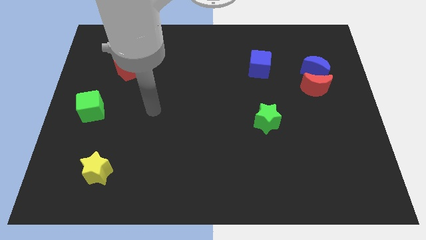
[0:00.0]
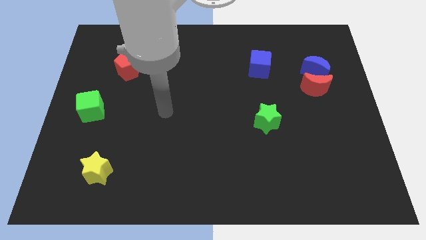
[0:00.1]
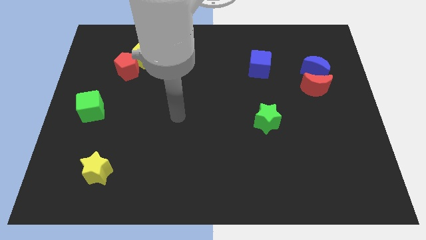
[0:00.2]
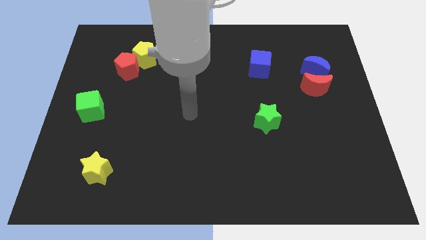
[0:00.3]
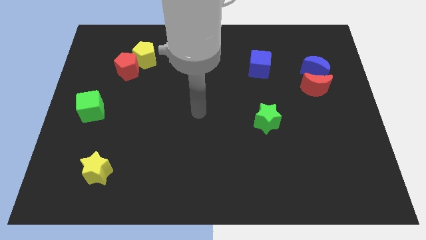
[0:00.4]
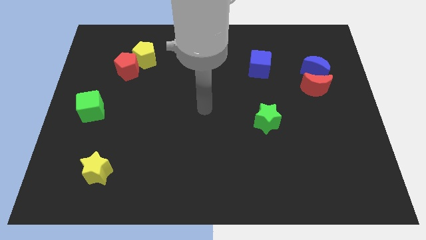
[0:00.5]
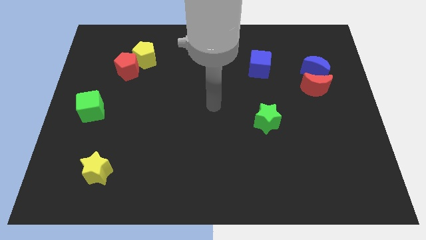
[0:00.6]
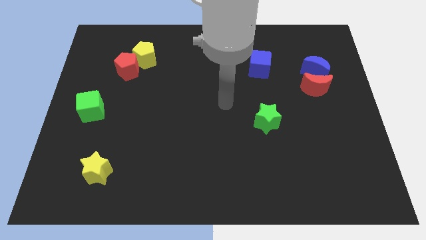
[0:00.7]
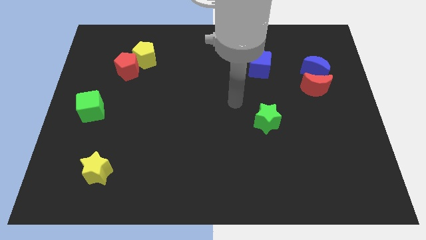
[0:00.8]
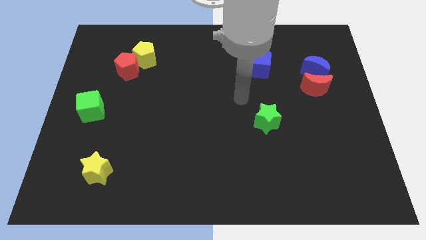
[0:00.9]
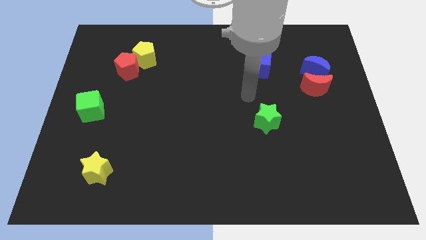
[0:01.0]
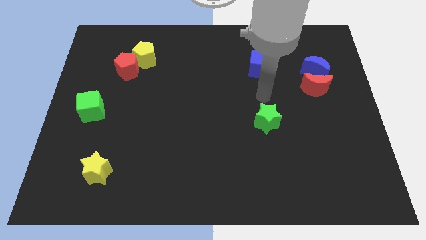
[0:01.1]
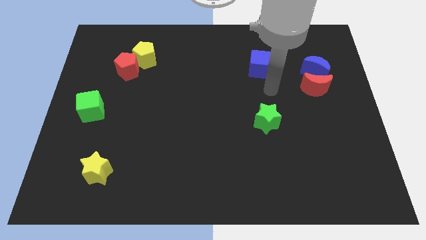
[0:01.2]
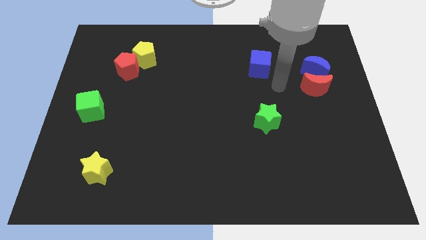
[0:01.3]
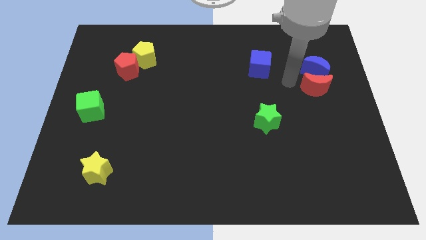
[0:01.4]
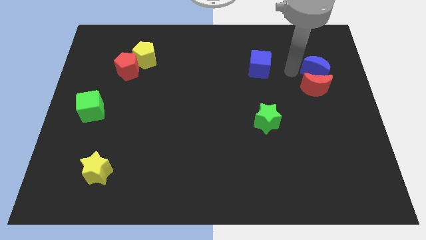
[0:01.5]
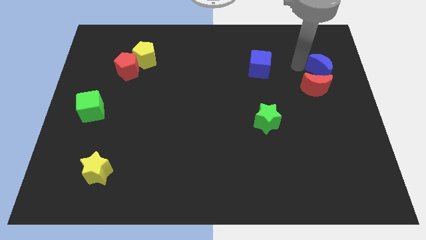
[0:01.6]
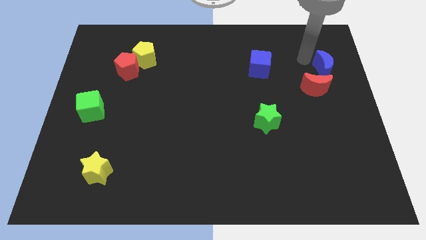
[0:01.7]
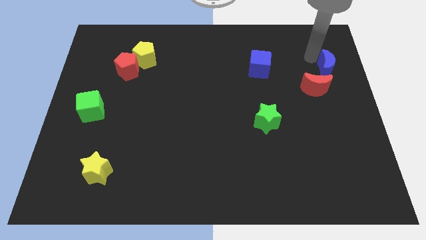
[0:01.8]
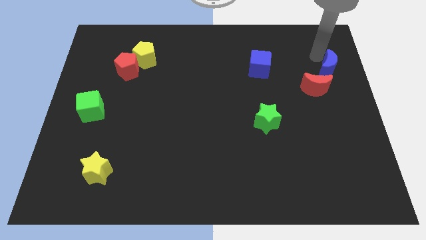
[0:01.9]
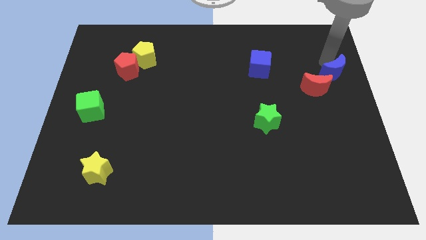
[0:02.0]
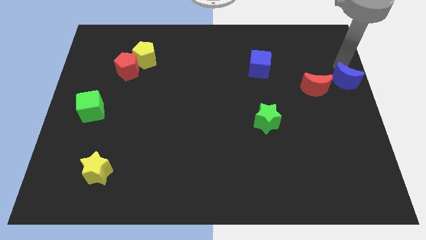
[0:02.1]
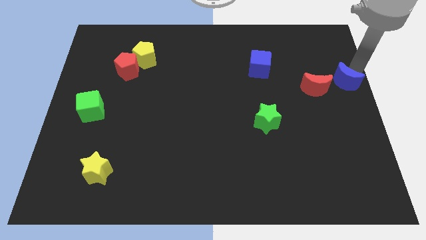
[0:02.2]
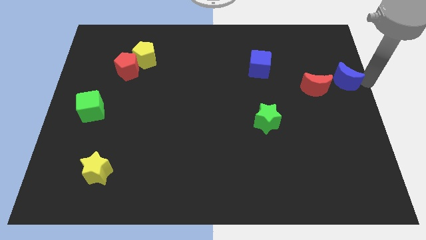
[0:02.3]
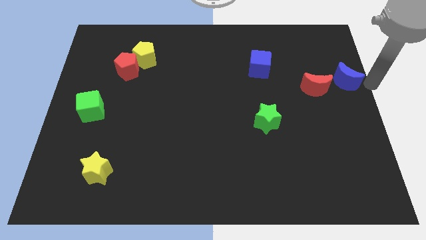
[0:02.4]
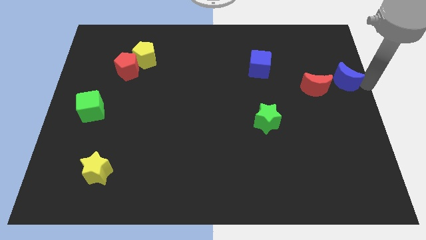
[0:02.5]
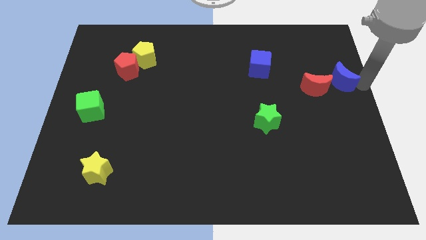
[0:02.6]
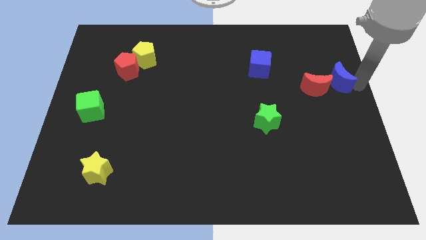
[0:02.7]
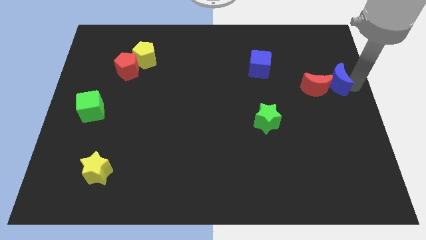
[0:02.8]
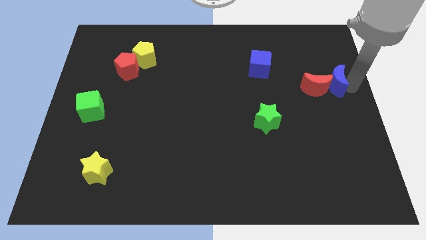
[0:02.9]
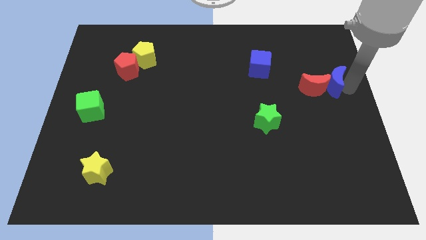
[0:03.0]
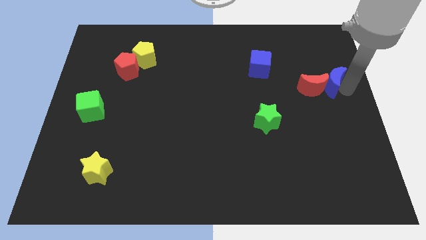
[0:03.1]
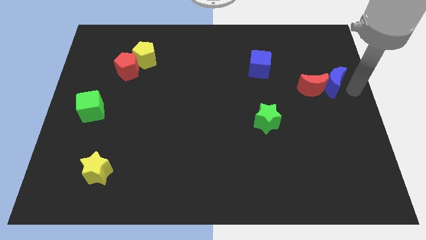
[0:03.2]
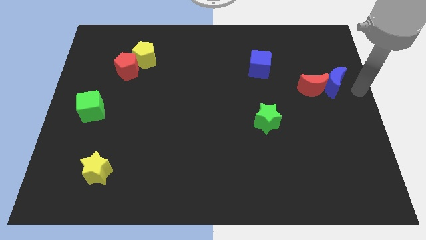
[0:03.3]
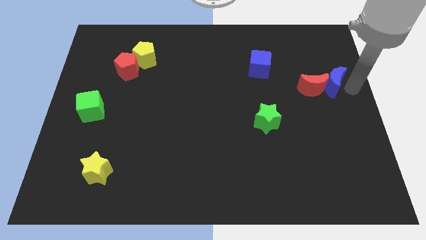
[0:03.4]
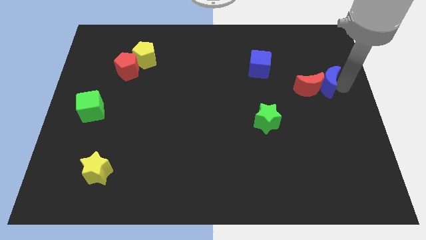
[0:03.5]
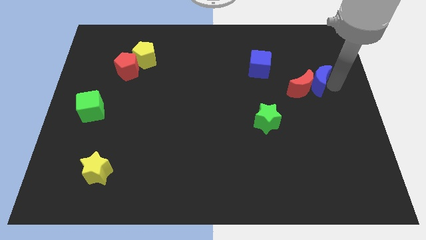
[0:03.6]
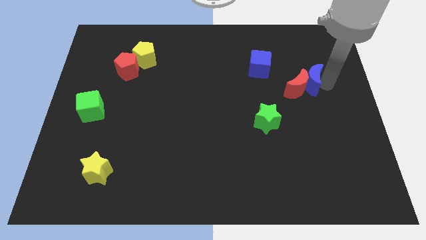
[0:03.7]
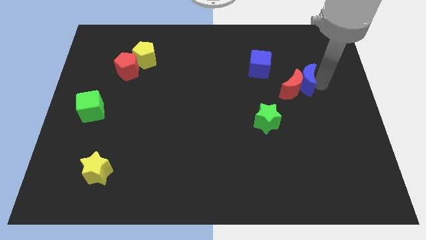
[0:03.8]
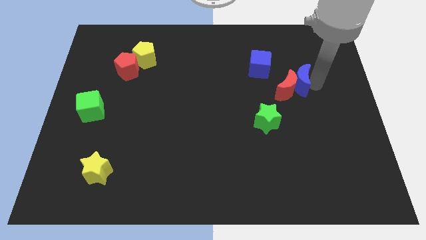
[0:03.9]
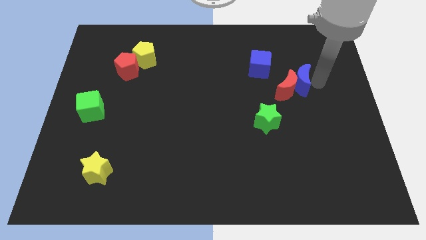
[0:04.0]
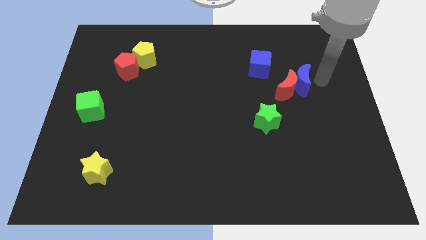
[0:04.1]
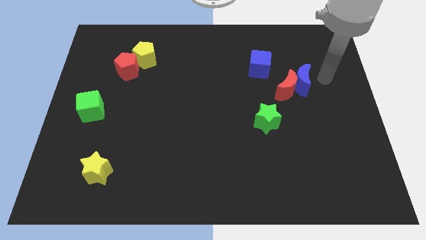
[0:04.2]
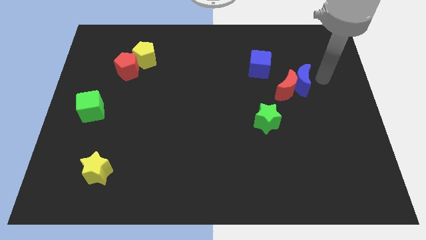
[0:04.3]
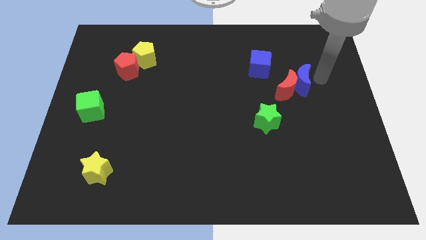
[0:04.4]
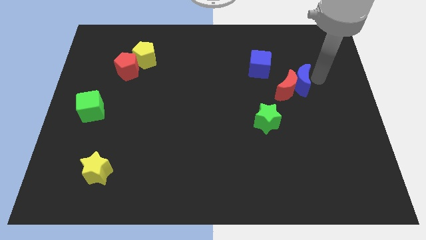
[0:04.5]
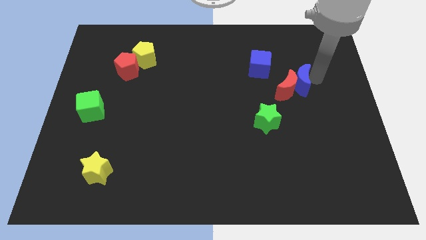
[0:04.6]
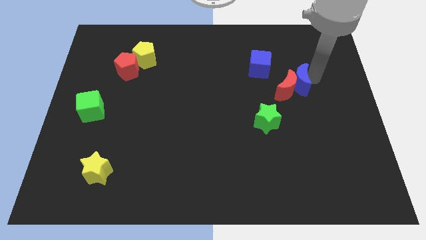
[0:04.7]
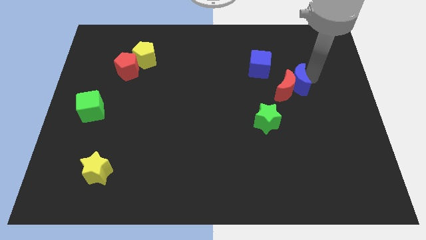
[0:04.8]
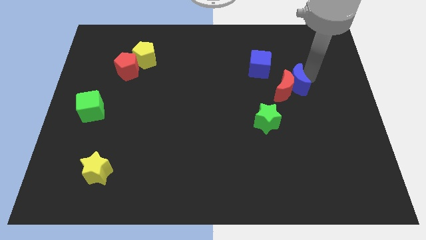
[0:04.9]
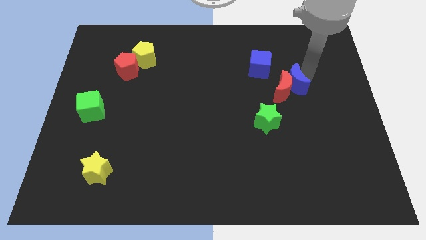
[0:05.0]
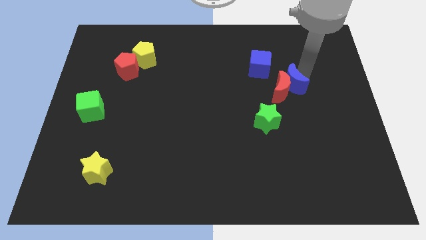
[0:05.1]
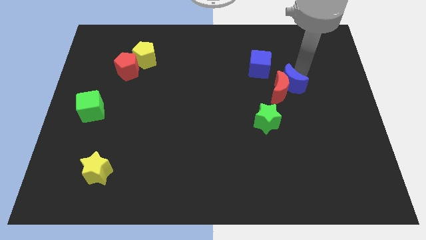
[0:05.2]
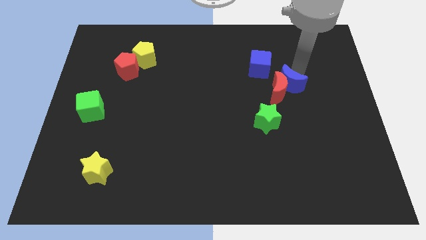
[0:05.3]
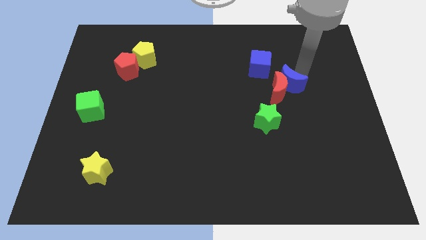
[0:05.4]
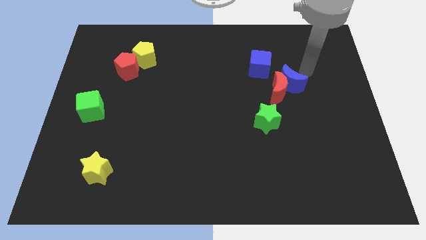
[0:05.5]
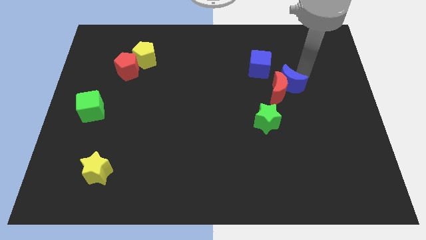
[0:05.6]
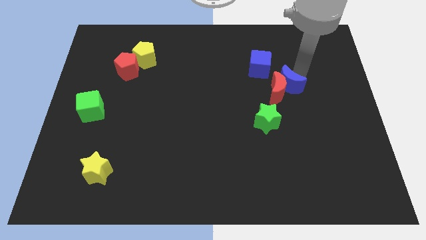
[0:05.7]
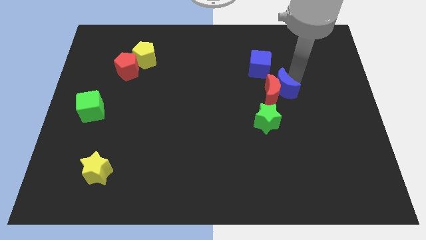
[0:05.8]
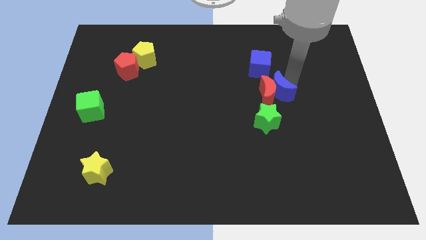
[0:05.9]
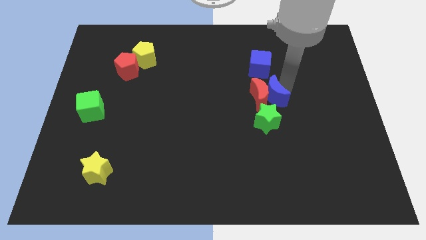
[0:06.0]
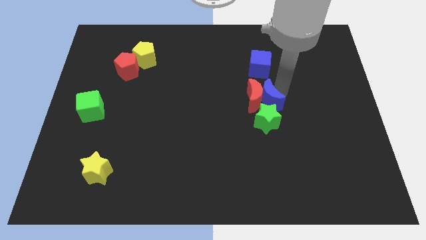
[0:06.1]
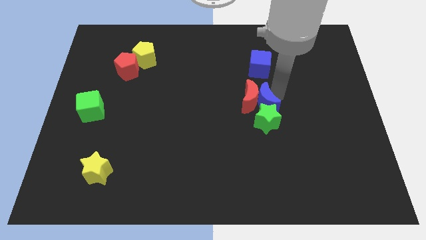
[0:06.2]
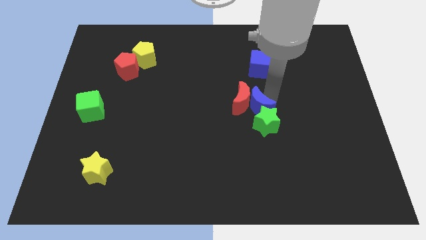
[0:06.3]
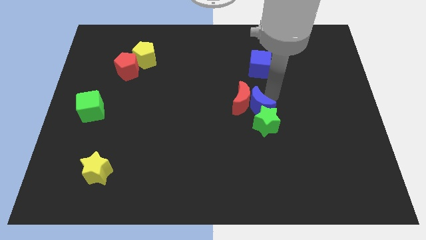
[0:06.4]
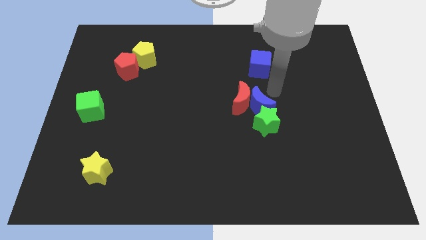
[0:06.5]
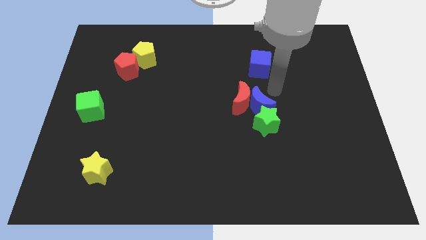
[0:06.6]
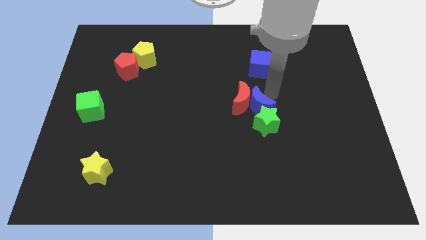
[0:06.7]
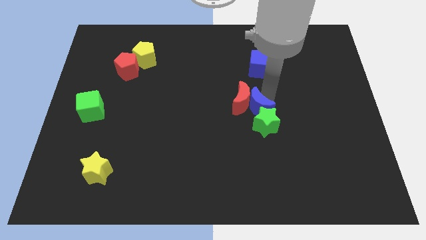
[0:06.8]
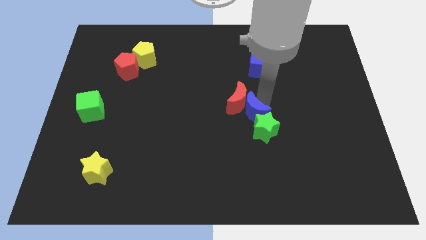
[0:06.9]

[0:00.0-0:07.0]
move the blue moon downwards and to the left

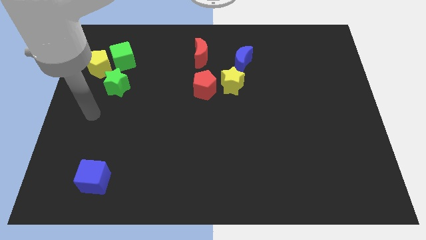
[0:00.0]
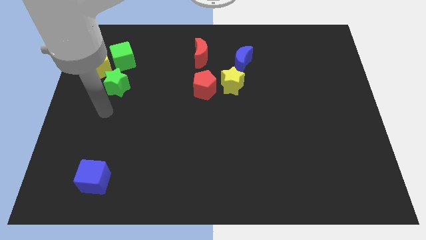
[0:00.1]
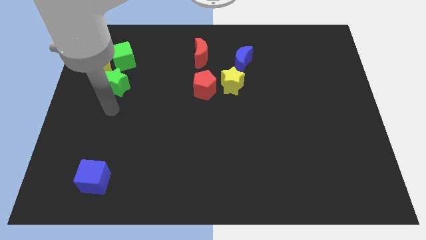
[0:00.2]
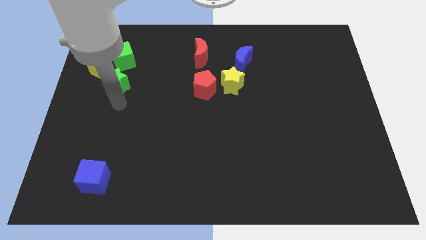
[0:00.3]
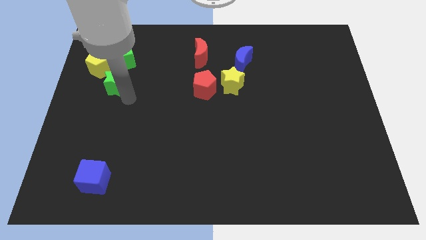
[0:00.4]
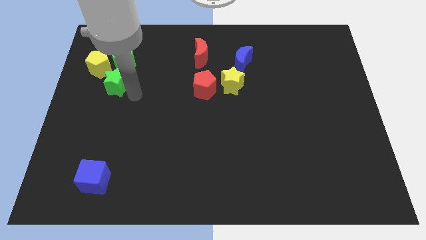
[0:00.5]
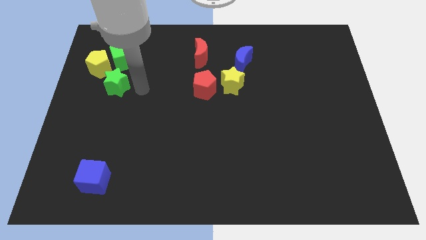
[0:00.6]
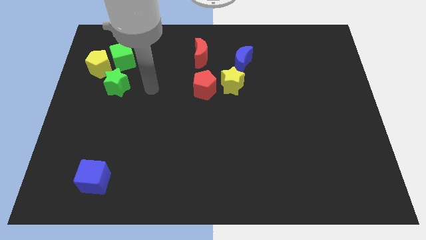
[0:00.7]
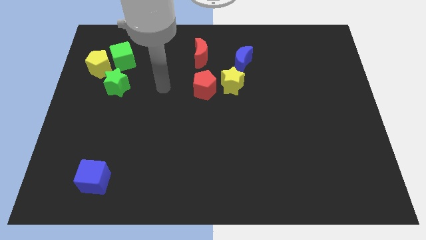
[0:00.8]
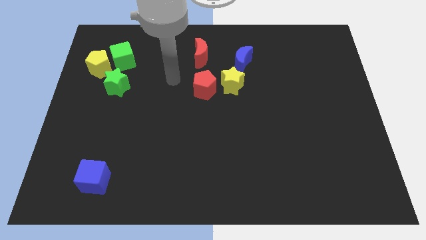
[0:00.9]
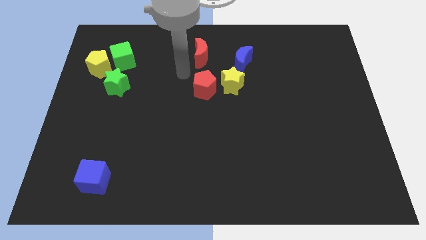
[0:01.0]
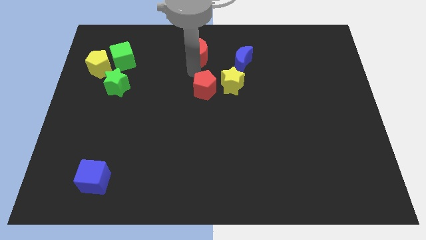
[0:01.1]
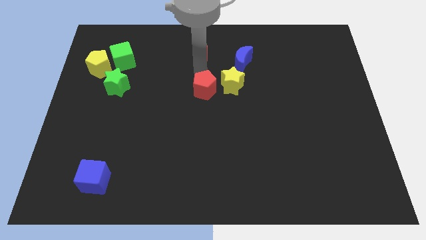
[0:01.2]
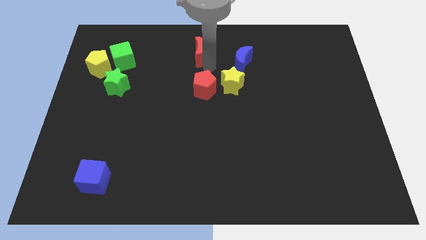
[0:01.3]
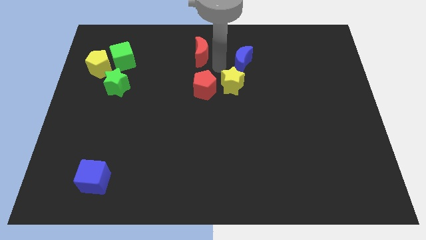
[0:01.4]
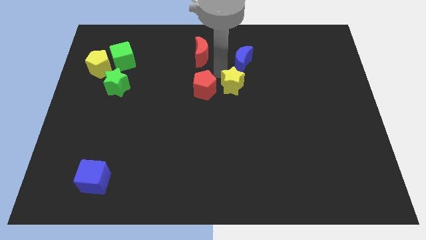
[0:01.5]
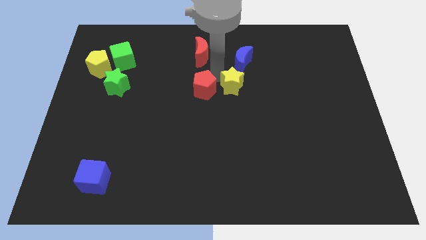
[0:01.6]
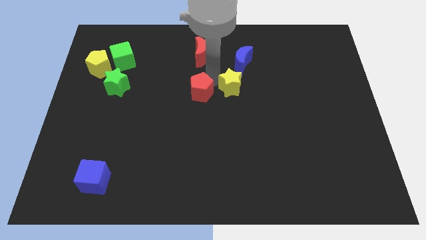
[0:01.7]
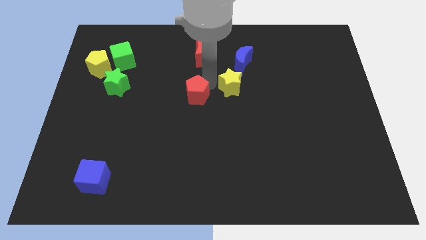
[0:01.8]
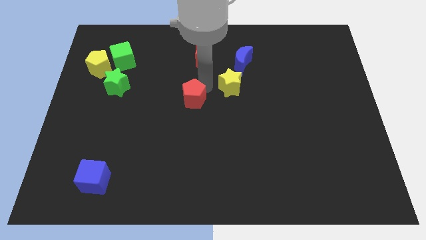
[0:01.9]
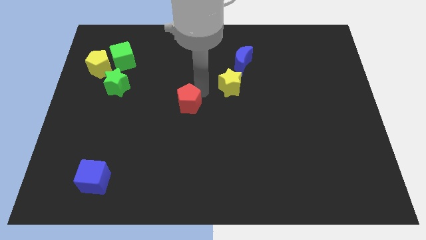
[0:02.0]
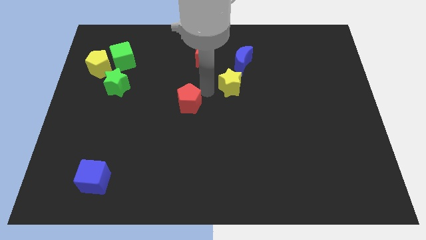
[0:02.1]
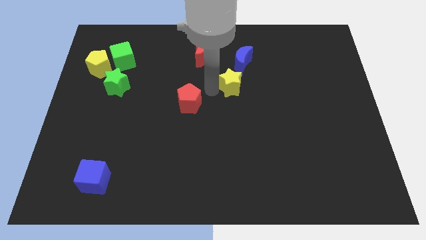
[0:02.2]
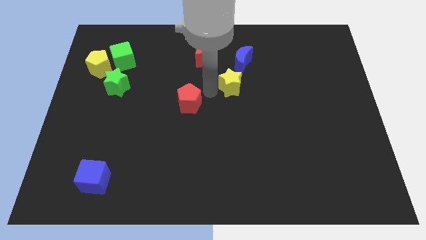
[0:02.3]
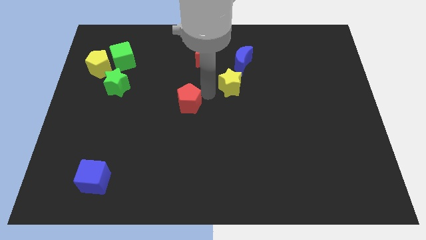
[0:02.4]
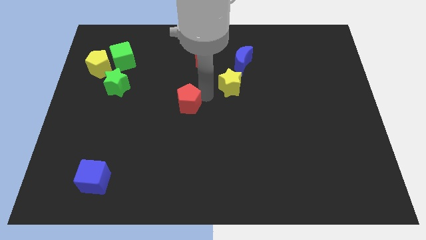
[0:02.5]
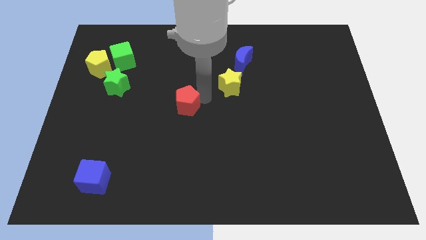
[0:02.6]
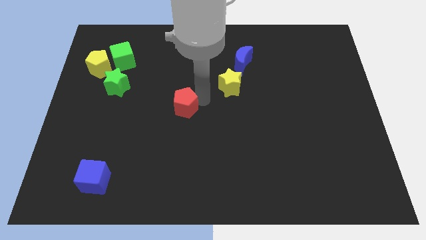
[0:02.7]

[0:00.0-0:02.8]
slightly move the red pentagon down and to the left diagonally
